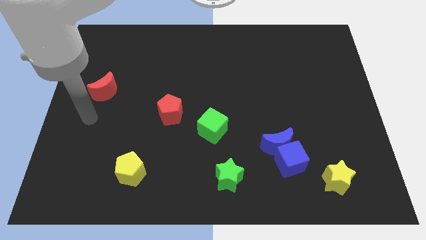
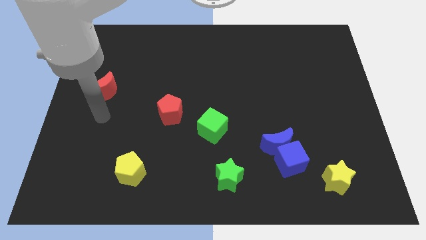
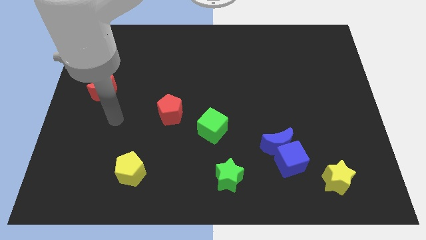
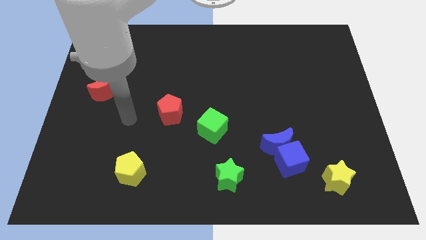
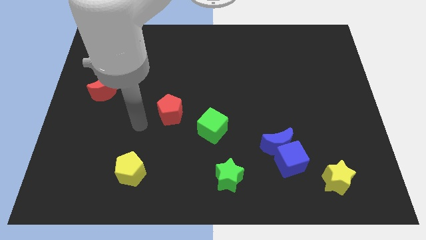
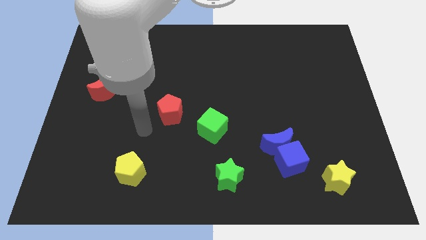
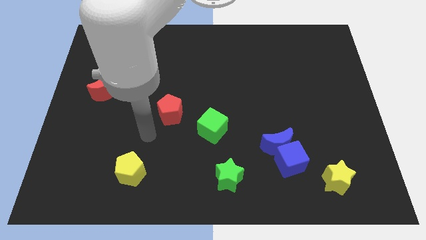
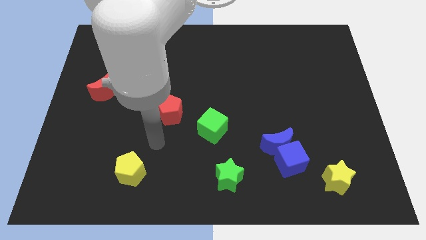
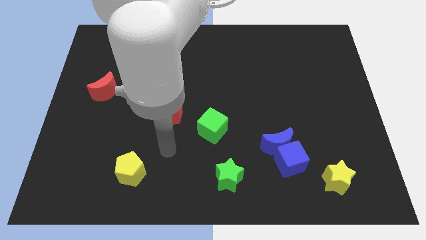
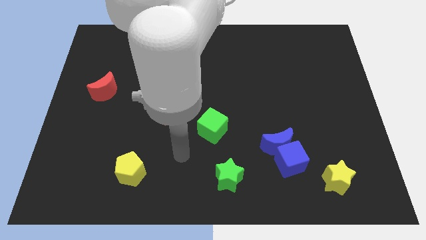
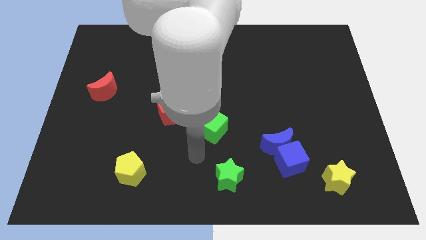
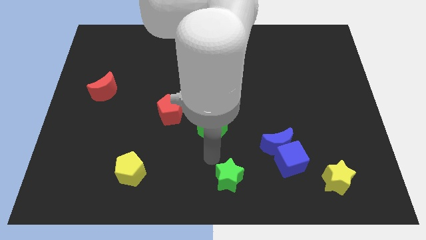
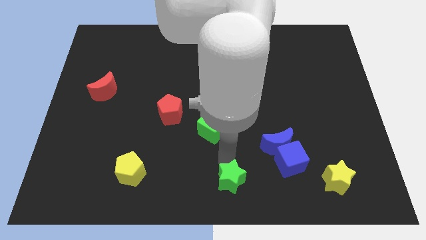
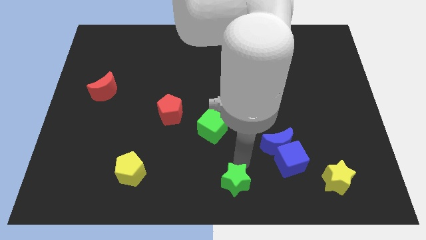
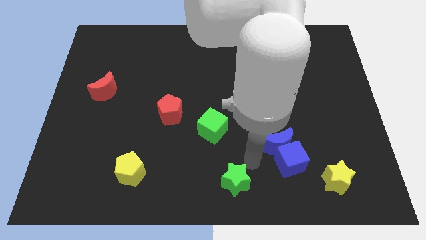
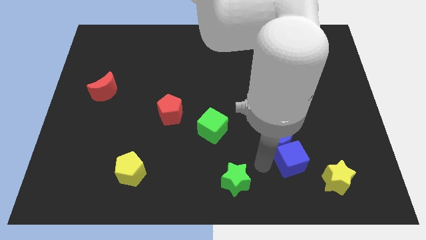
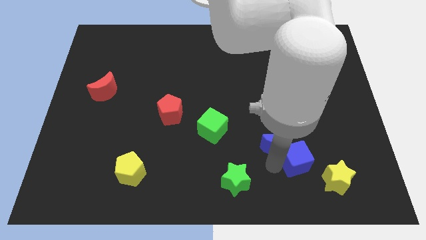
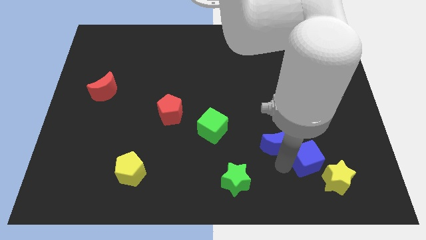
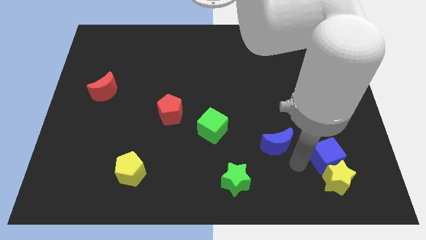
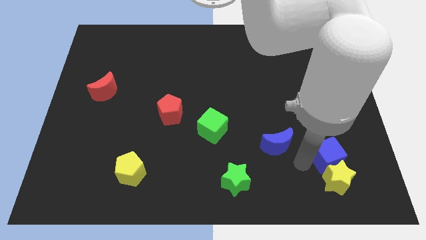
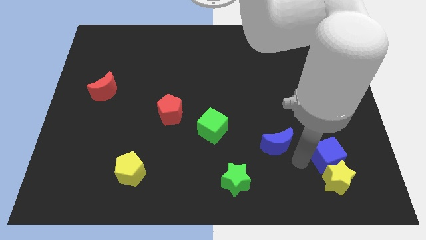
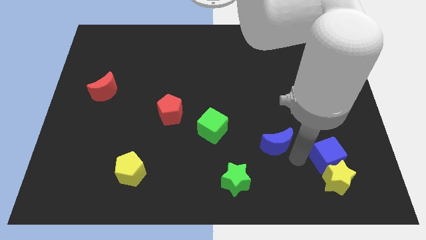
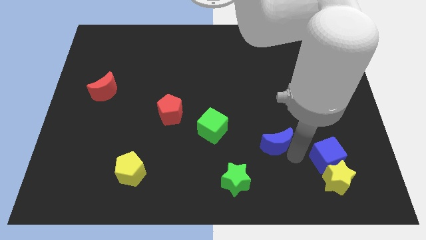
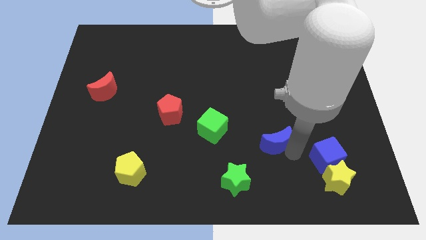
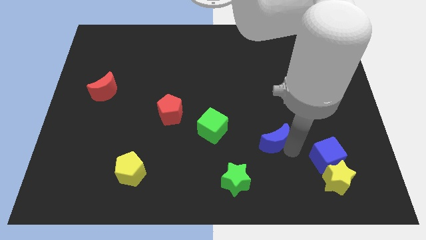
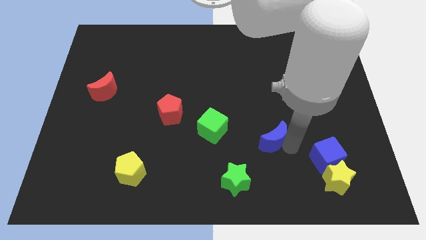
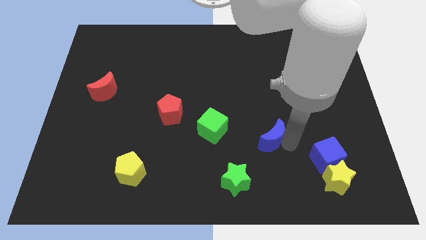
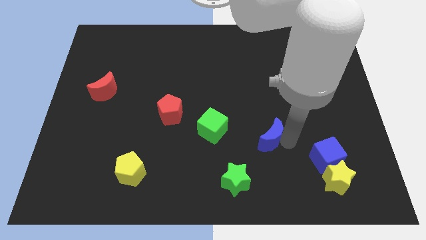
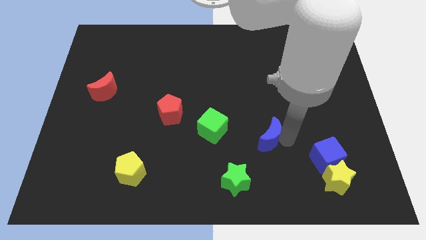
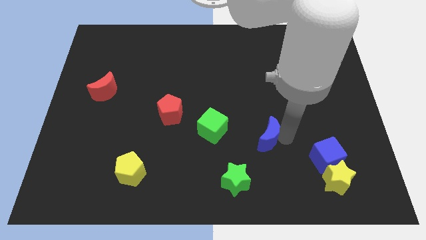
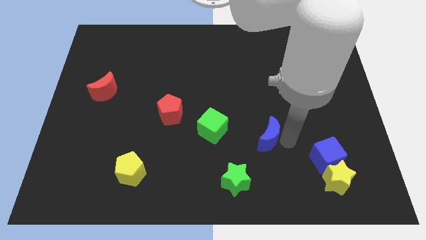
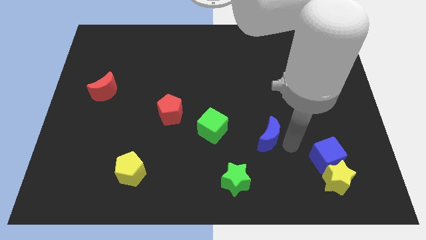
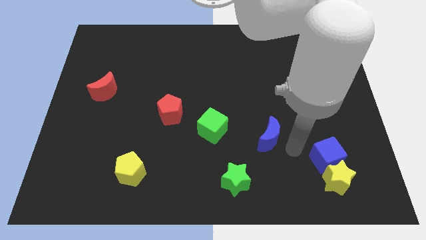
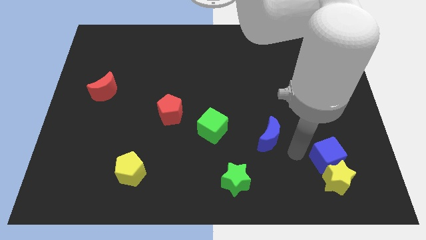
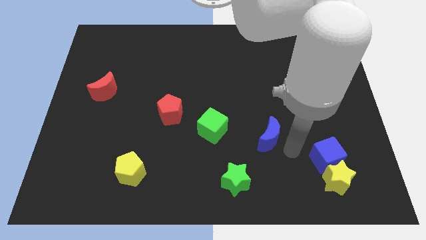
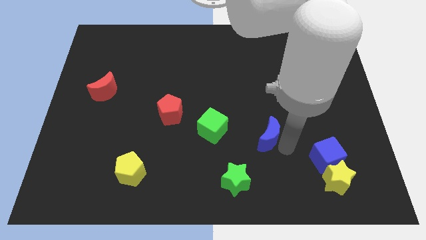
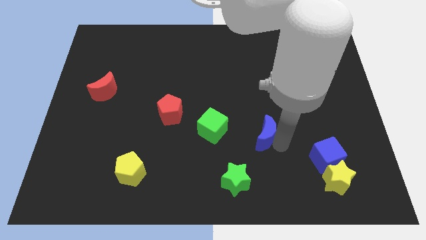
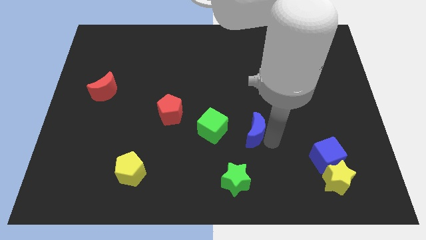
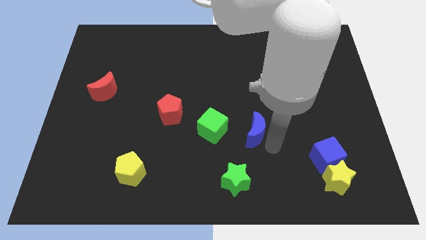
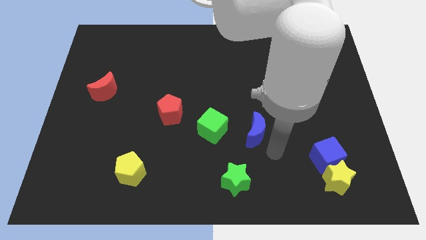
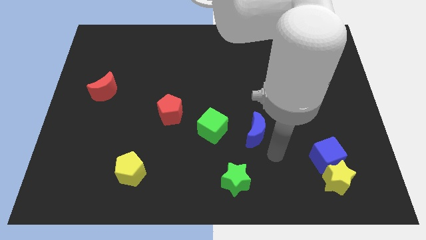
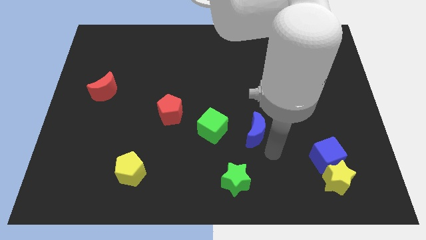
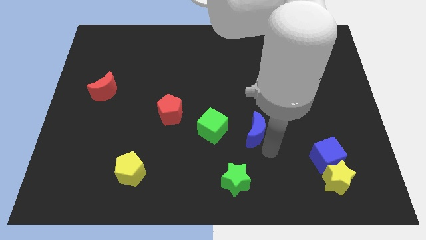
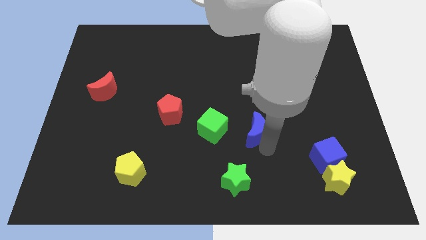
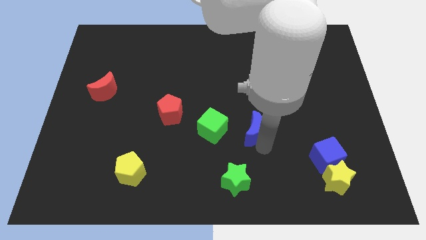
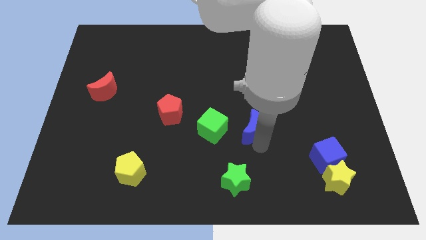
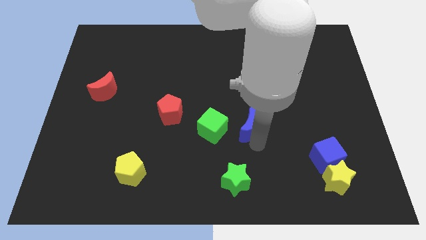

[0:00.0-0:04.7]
push the blue moon up and to the left diagonally somewhat

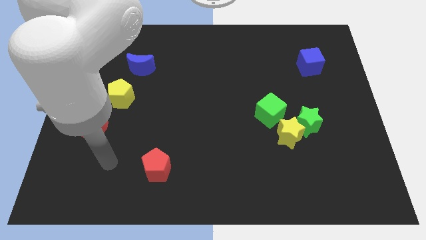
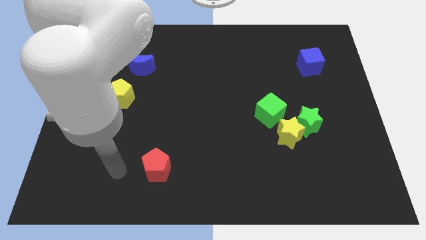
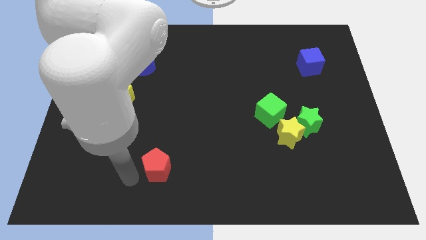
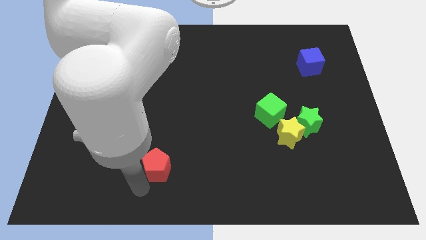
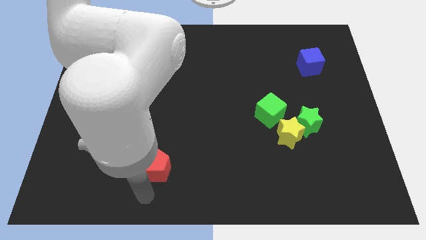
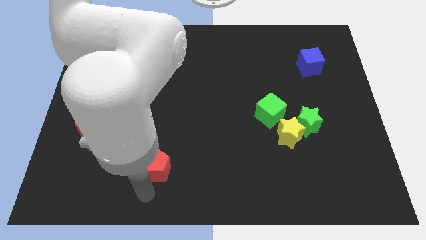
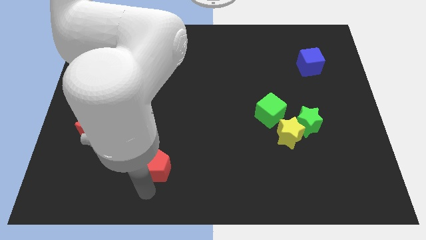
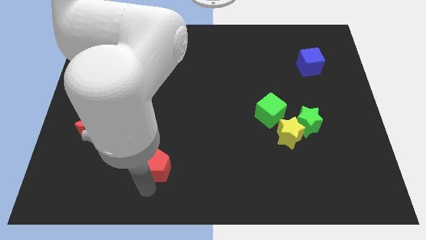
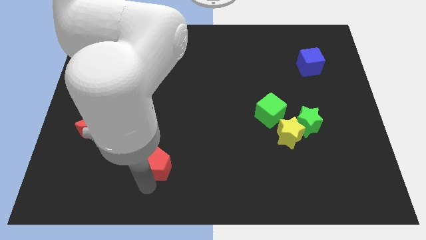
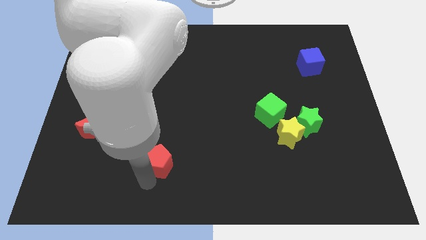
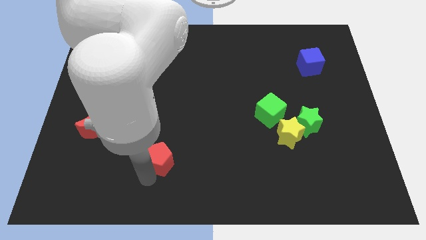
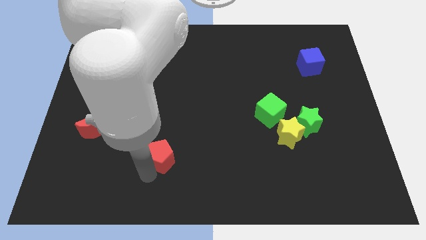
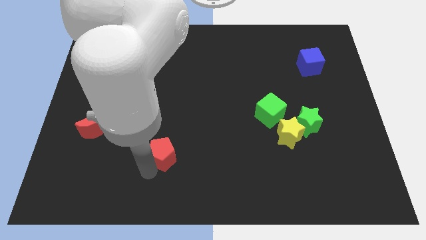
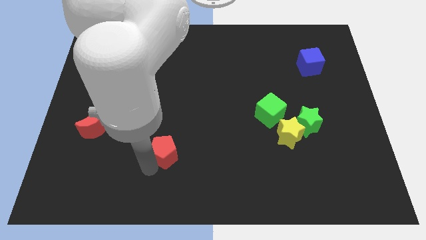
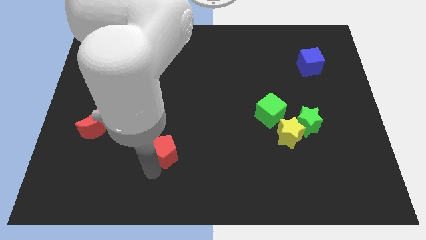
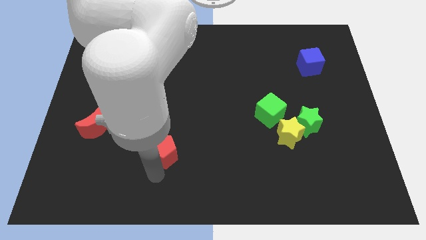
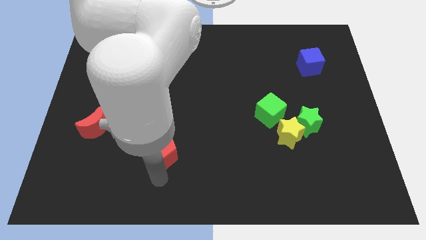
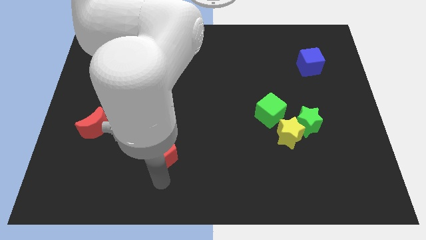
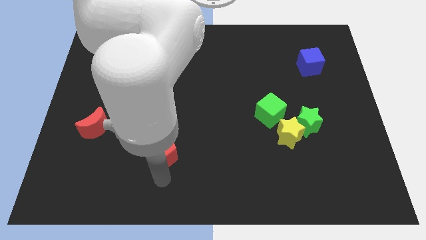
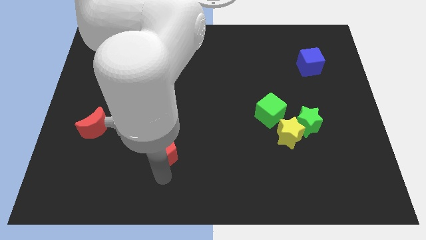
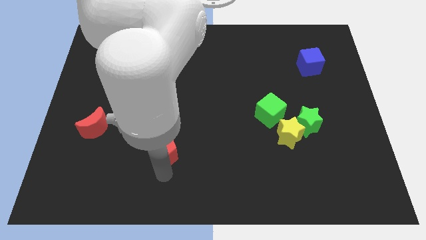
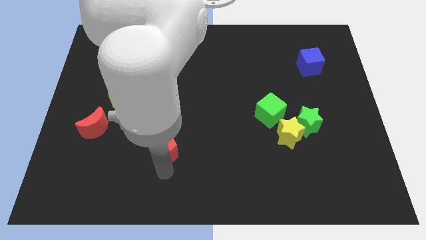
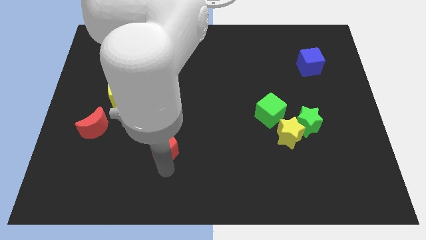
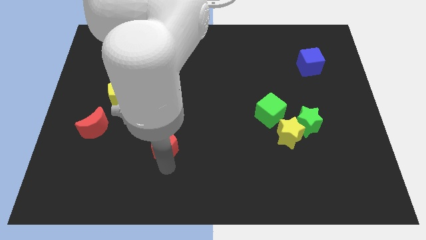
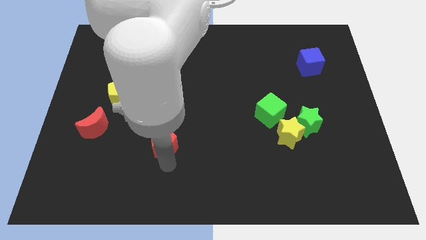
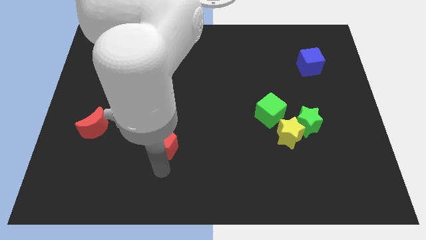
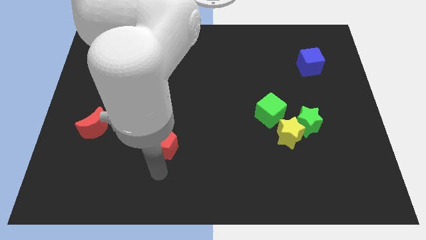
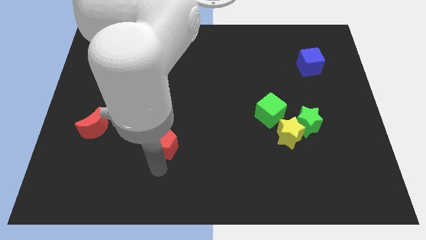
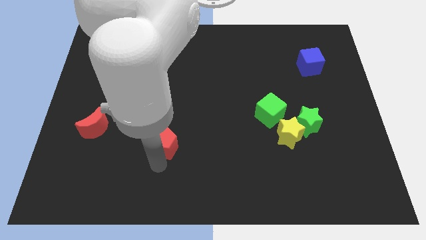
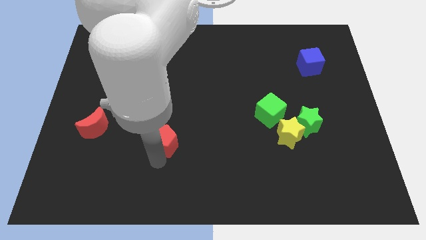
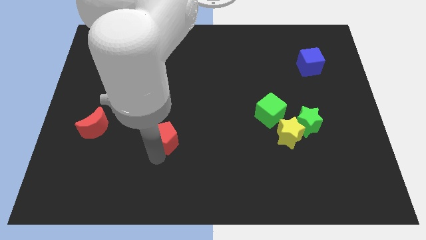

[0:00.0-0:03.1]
move the red pentagon a little bit up
